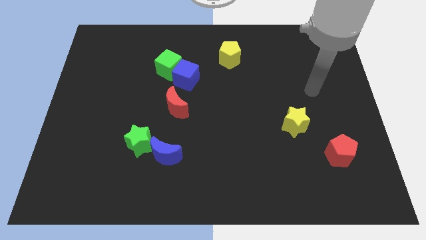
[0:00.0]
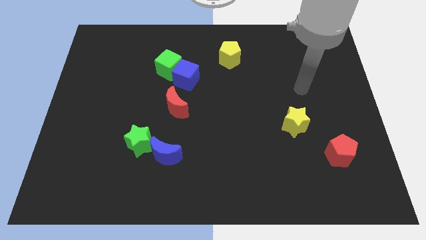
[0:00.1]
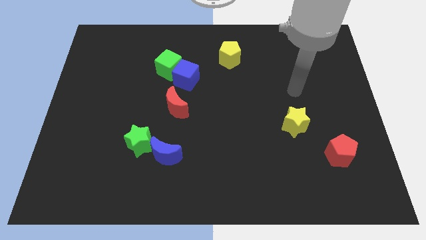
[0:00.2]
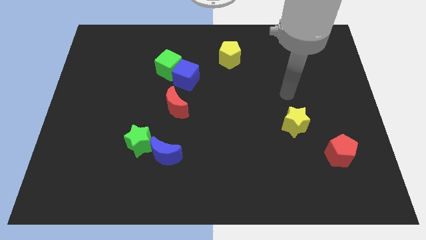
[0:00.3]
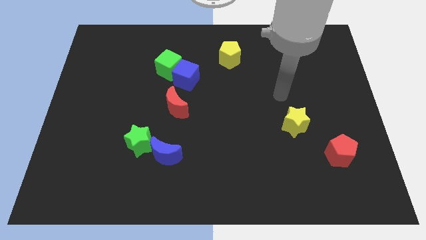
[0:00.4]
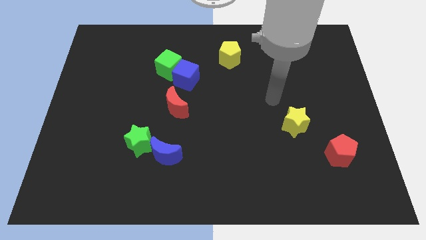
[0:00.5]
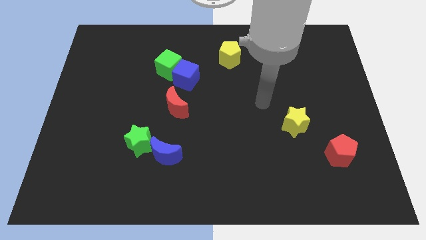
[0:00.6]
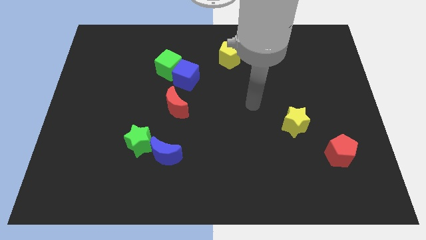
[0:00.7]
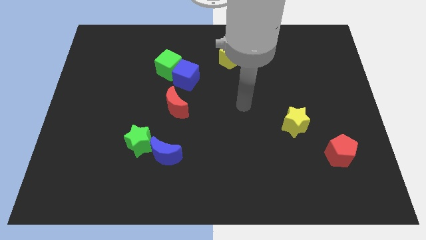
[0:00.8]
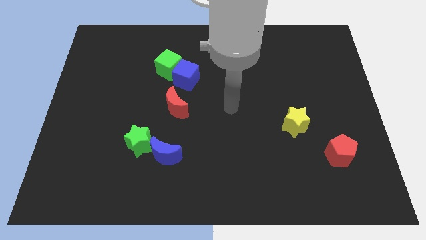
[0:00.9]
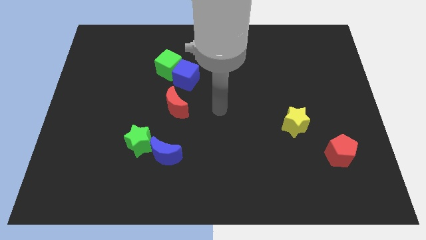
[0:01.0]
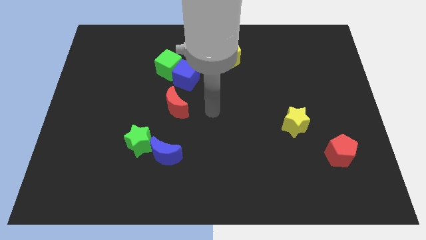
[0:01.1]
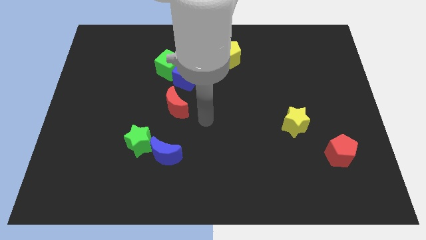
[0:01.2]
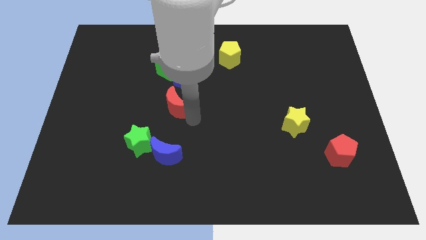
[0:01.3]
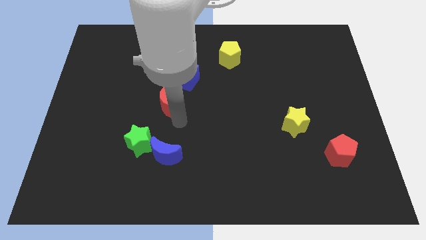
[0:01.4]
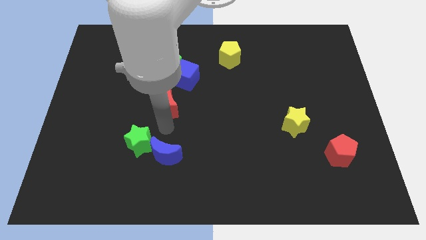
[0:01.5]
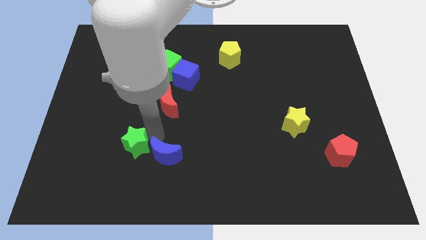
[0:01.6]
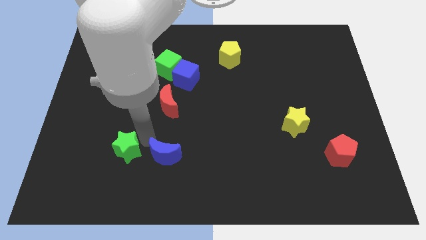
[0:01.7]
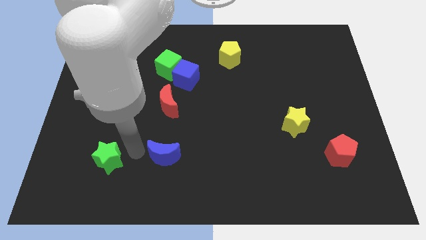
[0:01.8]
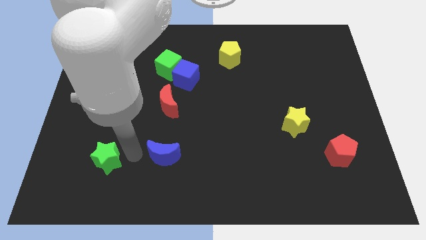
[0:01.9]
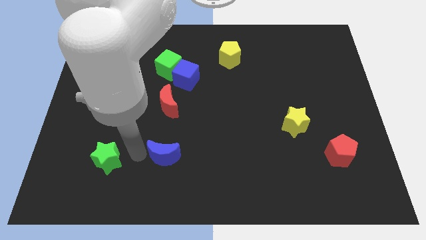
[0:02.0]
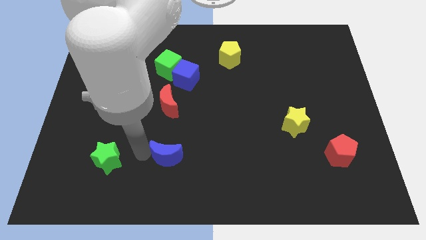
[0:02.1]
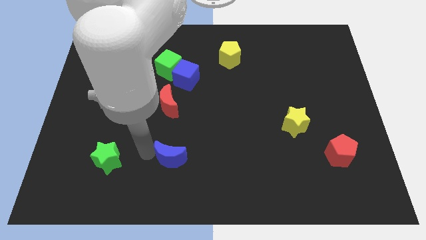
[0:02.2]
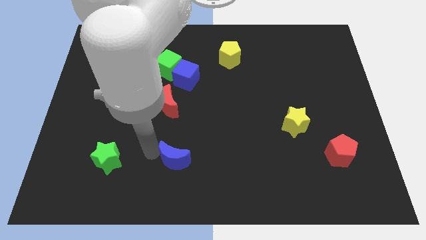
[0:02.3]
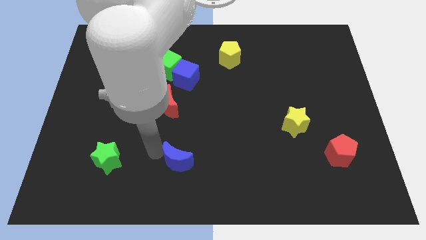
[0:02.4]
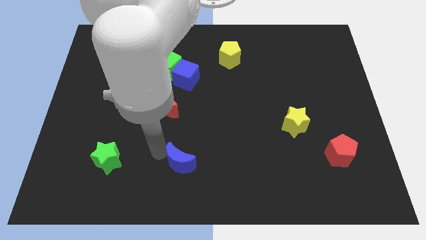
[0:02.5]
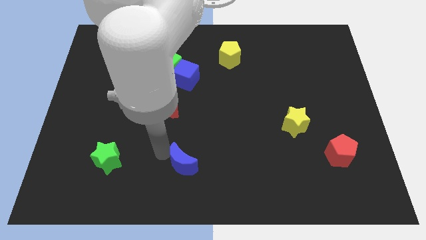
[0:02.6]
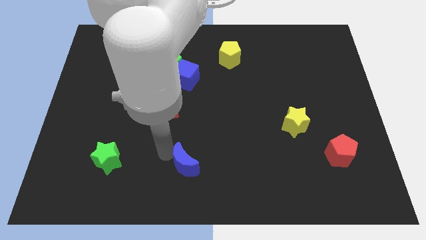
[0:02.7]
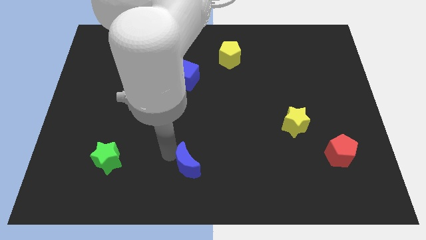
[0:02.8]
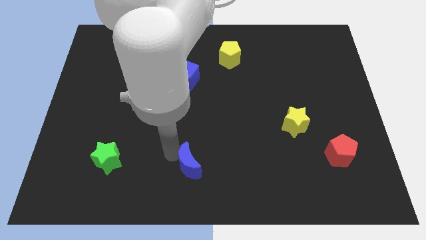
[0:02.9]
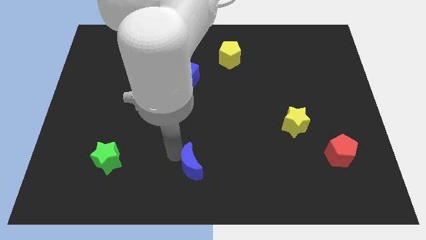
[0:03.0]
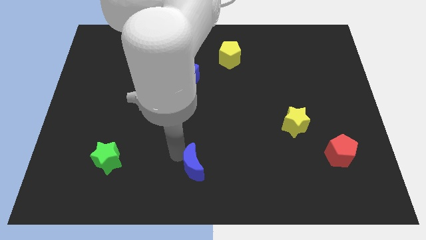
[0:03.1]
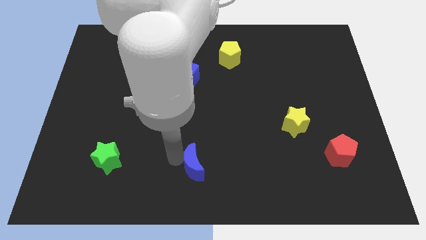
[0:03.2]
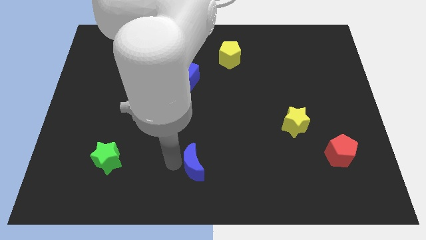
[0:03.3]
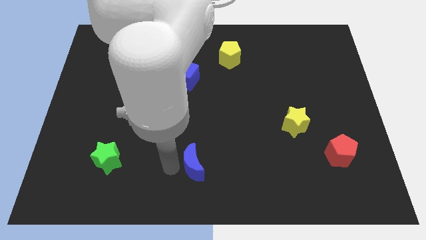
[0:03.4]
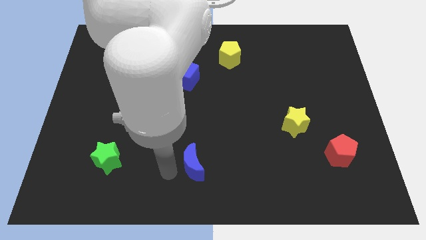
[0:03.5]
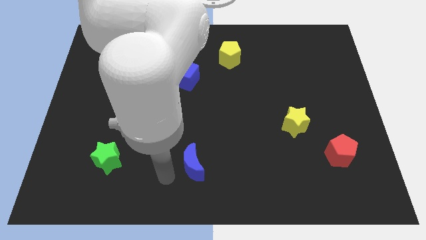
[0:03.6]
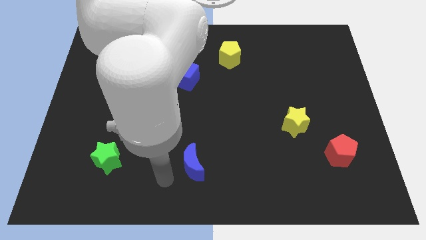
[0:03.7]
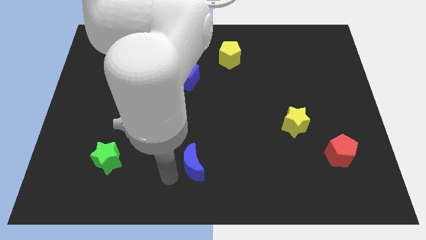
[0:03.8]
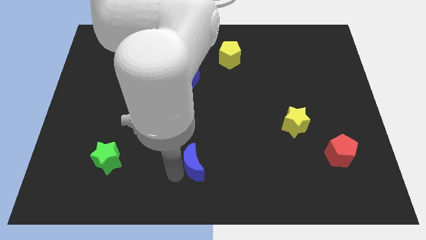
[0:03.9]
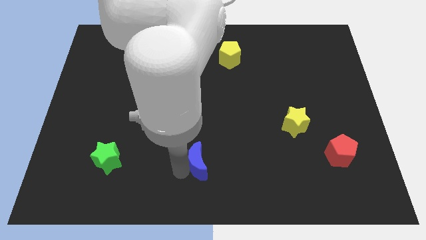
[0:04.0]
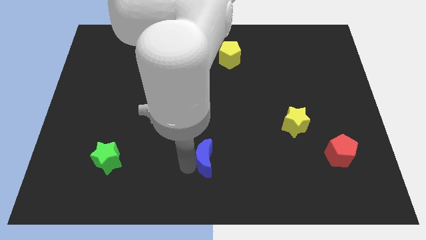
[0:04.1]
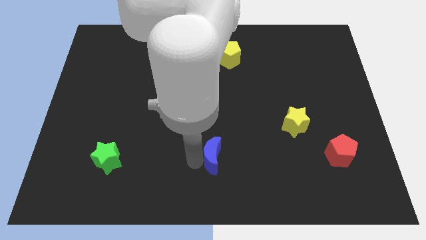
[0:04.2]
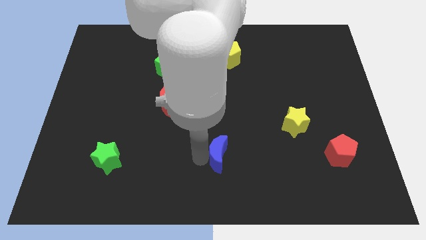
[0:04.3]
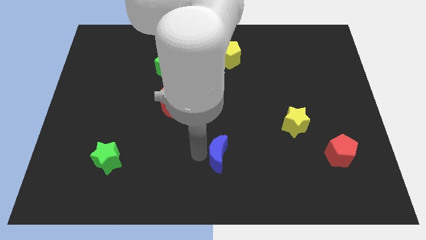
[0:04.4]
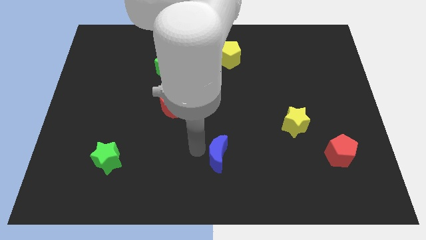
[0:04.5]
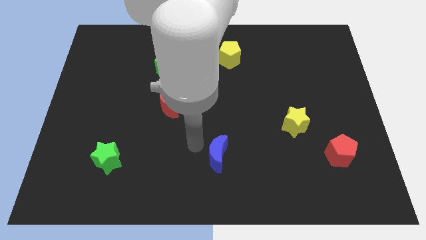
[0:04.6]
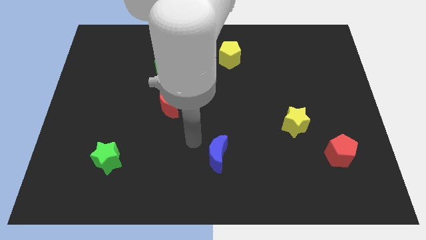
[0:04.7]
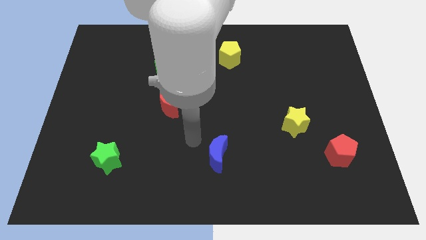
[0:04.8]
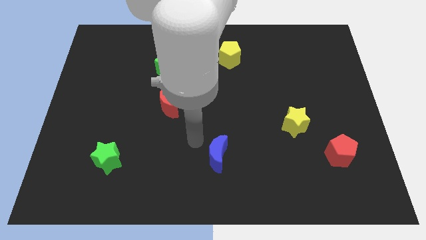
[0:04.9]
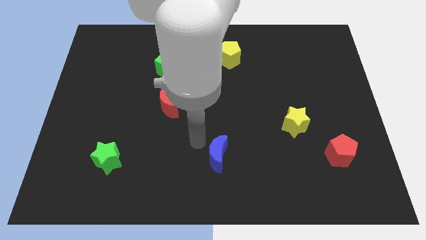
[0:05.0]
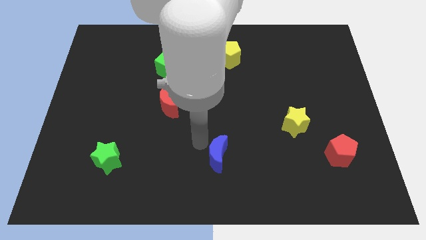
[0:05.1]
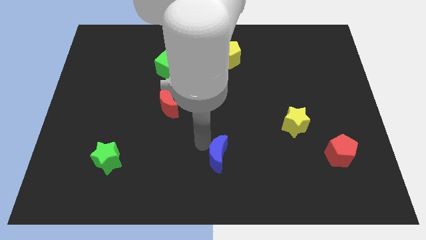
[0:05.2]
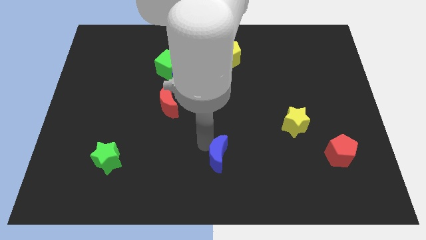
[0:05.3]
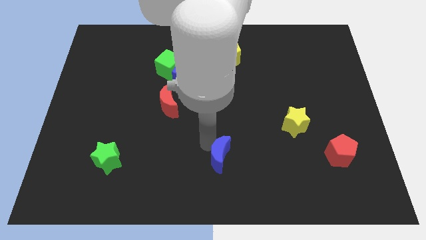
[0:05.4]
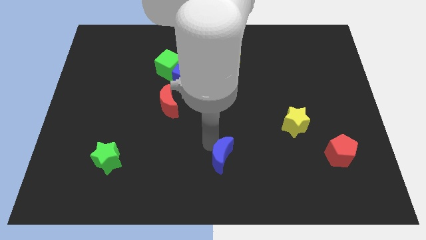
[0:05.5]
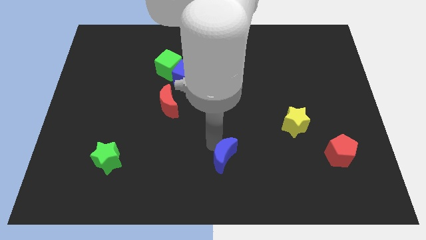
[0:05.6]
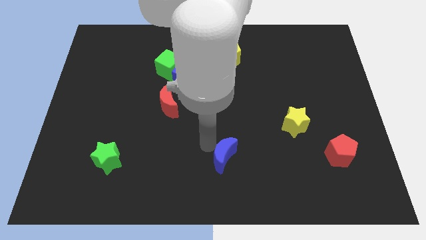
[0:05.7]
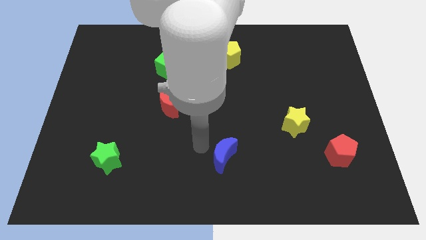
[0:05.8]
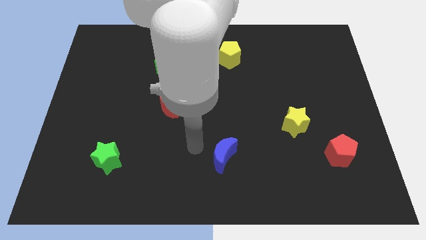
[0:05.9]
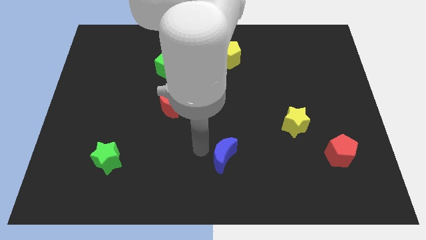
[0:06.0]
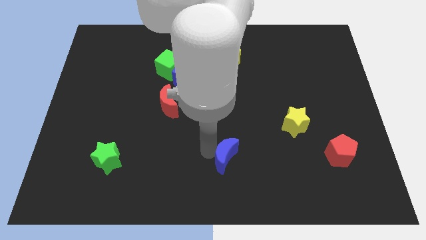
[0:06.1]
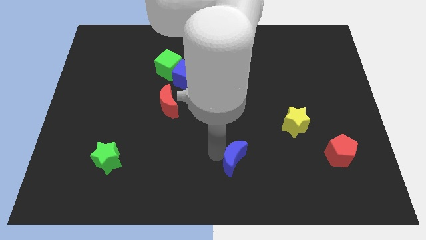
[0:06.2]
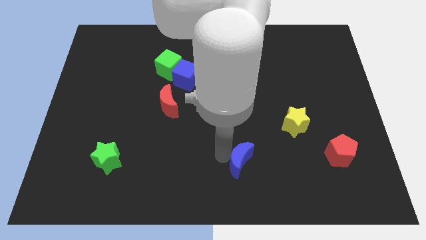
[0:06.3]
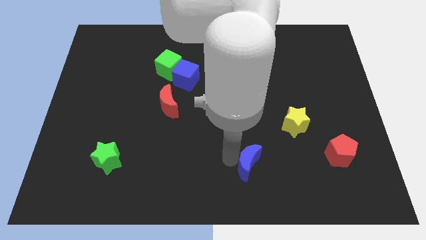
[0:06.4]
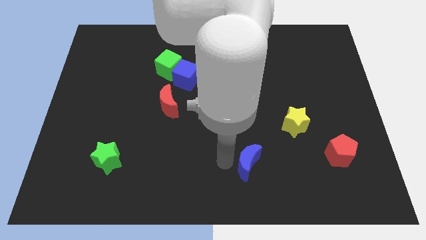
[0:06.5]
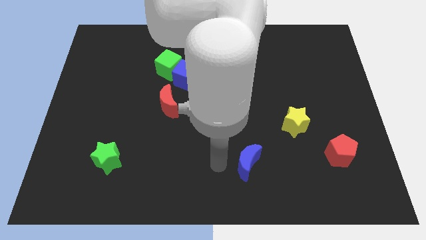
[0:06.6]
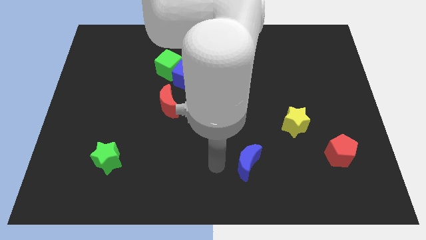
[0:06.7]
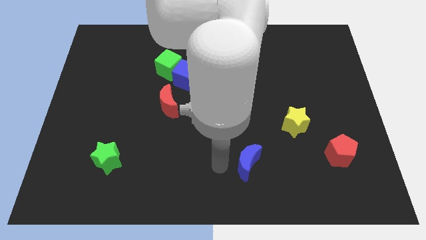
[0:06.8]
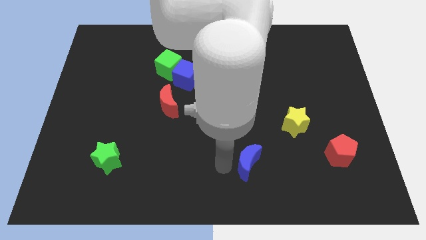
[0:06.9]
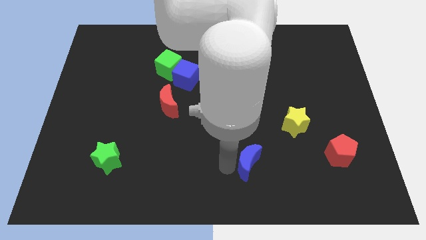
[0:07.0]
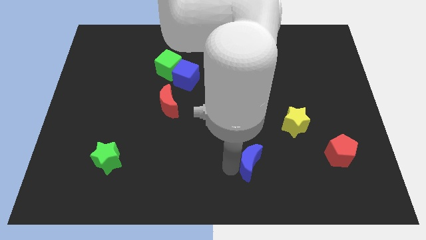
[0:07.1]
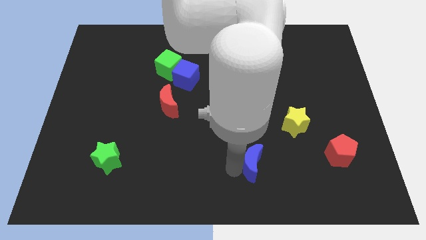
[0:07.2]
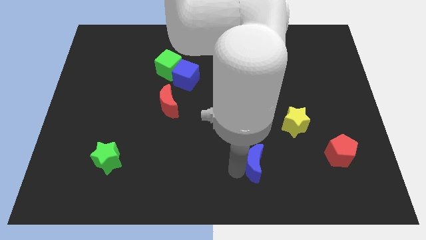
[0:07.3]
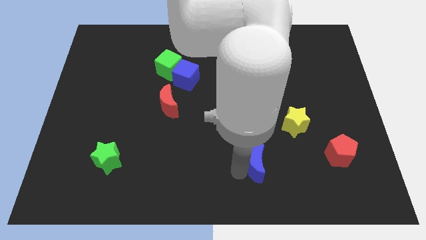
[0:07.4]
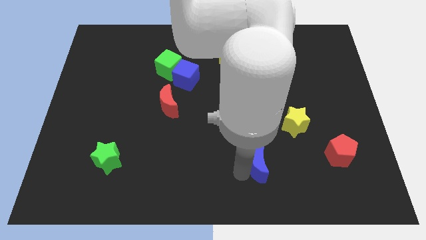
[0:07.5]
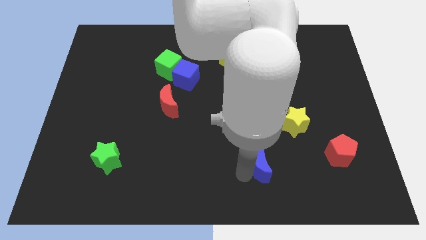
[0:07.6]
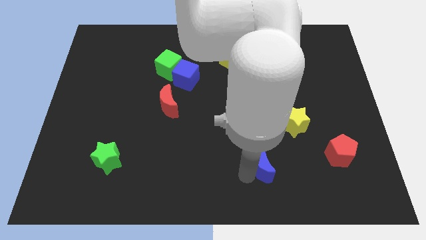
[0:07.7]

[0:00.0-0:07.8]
move the blue moon to the right
